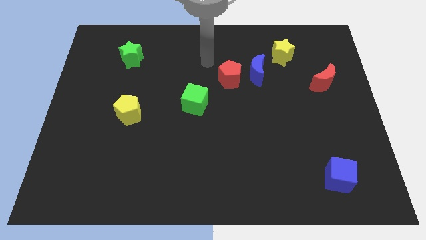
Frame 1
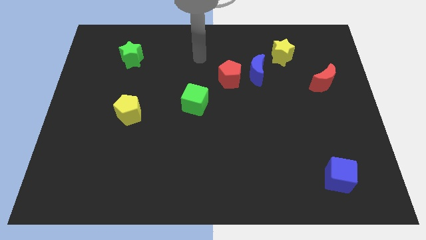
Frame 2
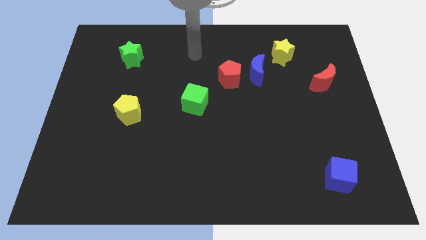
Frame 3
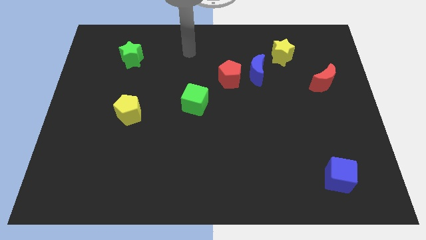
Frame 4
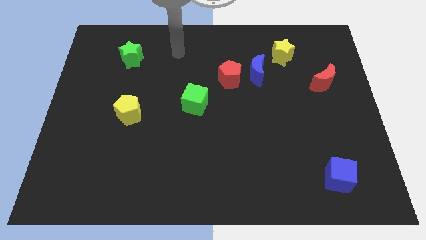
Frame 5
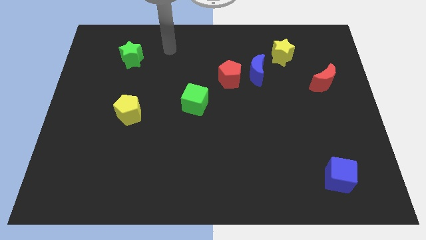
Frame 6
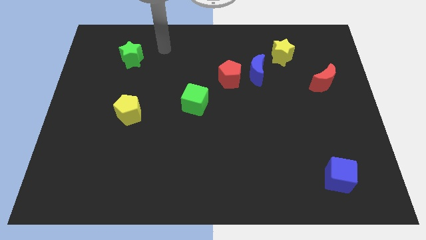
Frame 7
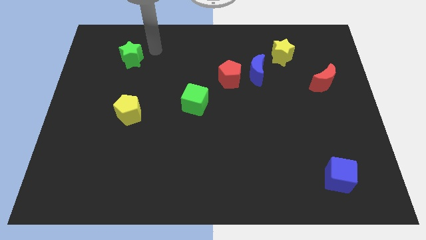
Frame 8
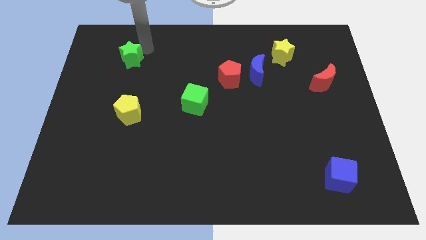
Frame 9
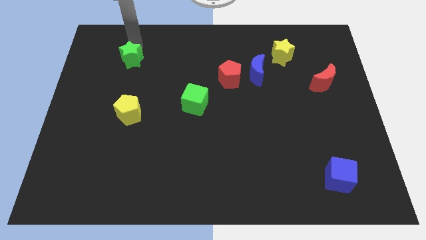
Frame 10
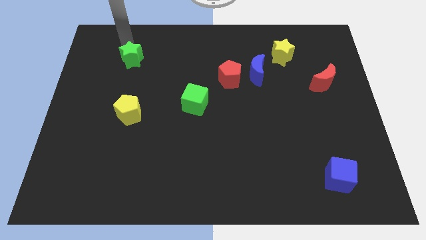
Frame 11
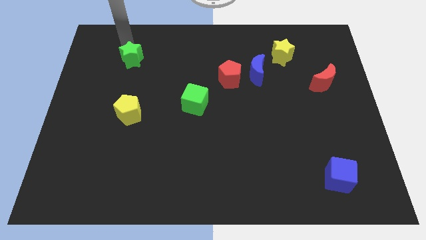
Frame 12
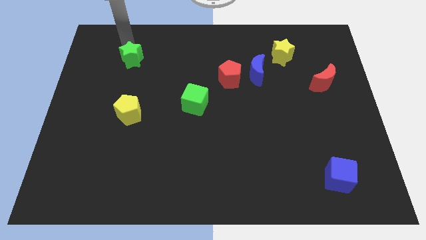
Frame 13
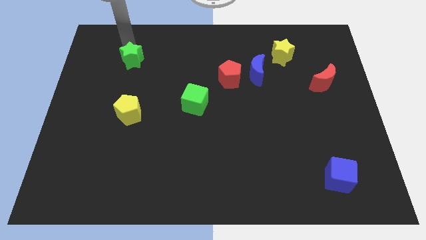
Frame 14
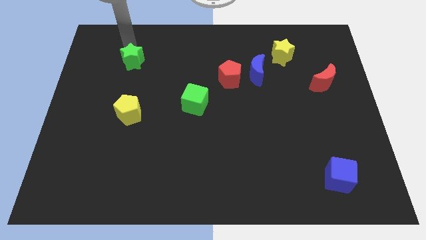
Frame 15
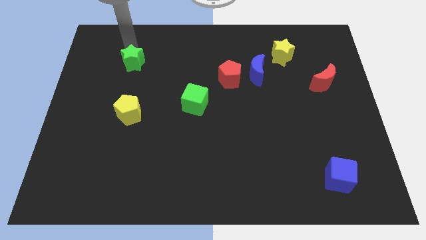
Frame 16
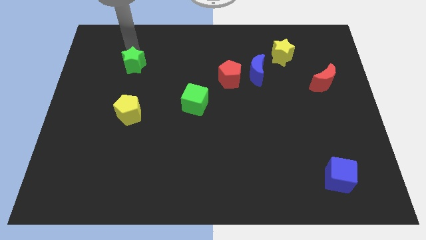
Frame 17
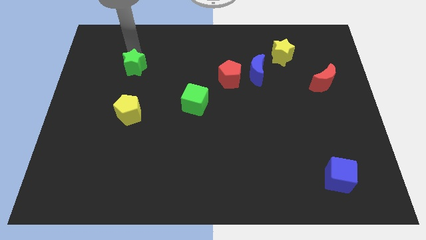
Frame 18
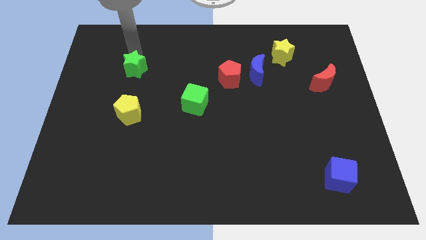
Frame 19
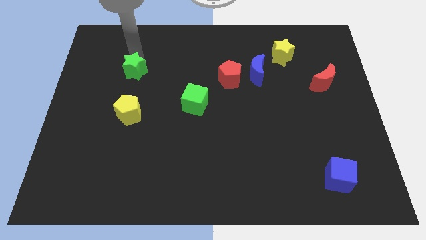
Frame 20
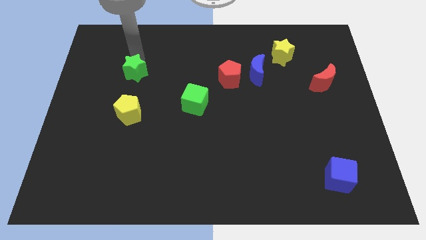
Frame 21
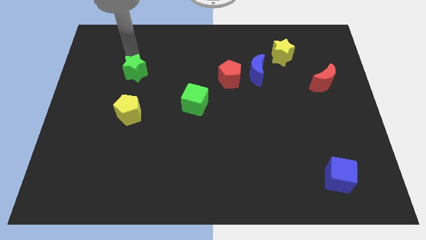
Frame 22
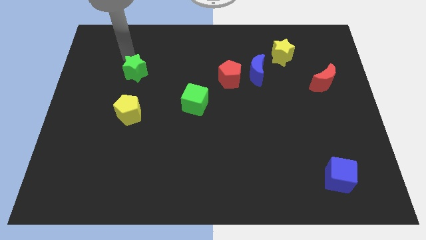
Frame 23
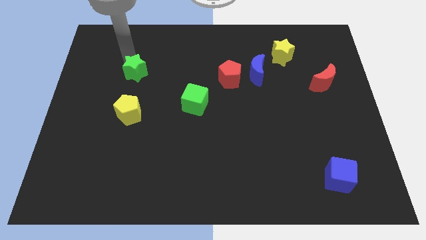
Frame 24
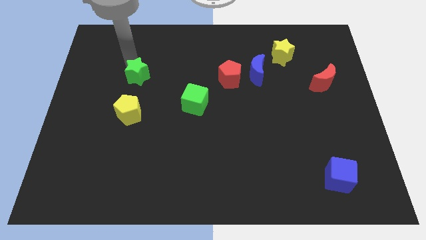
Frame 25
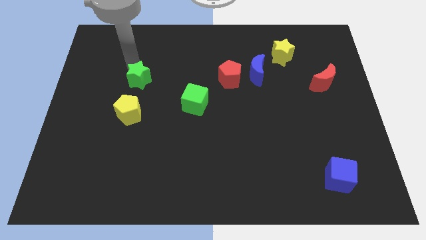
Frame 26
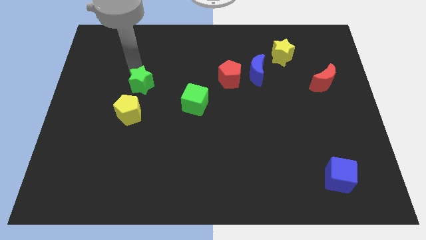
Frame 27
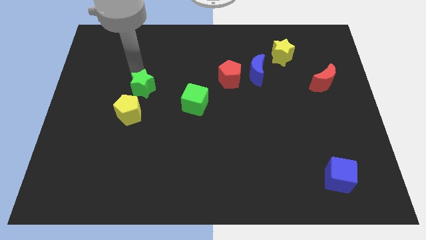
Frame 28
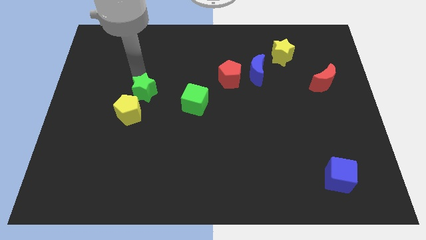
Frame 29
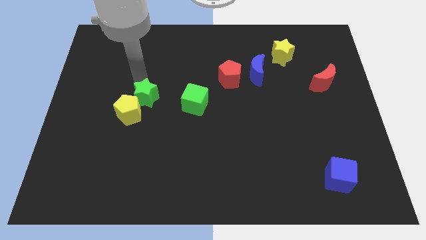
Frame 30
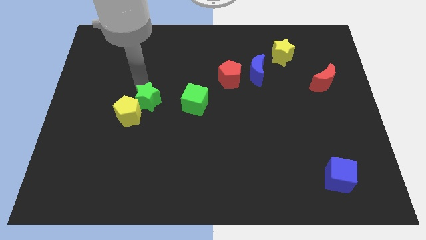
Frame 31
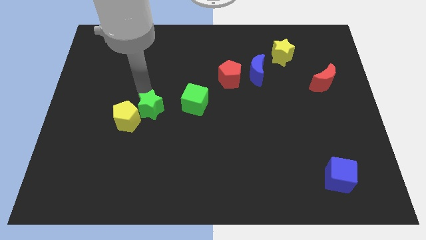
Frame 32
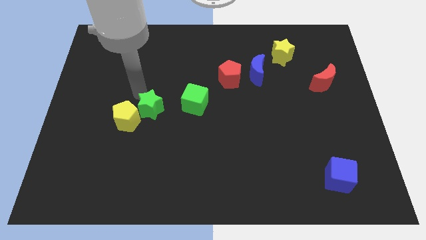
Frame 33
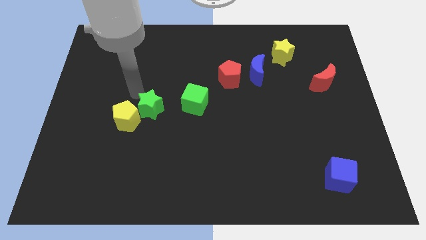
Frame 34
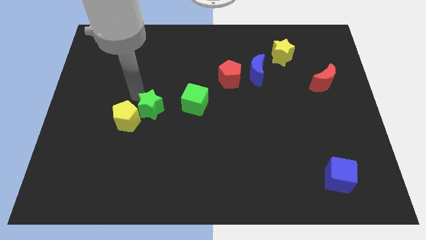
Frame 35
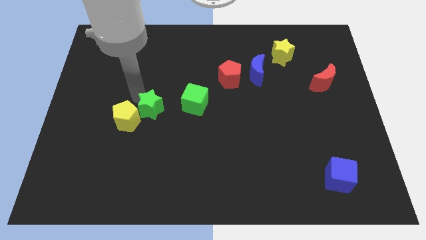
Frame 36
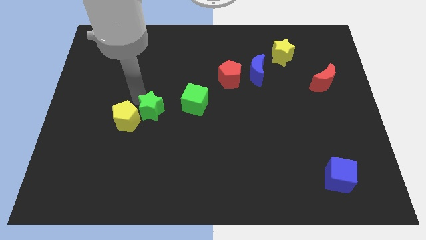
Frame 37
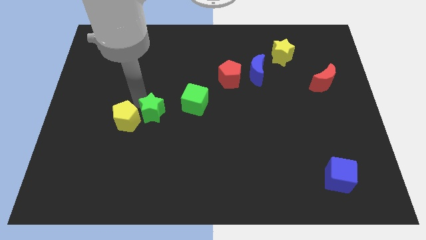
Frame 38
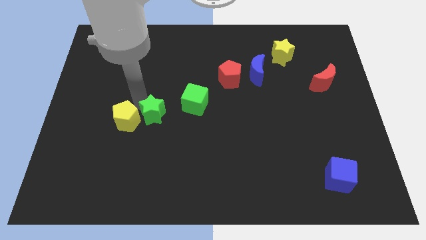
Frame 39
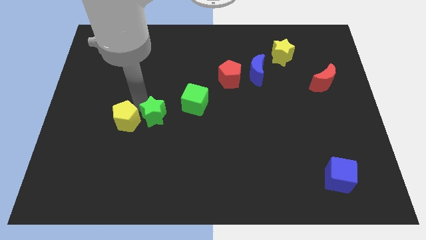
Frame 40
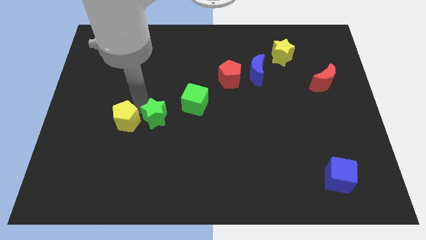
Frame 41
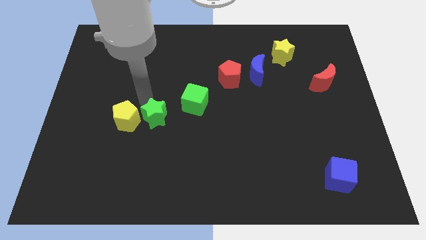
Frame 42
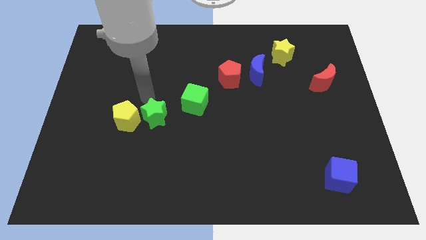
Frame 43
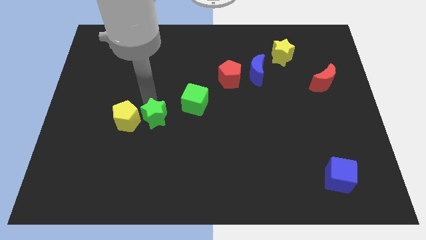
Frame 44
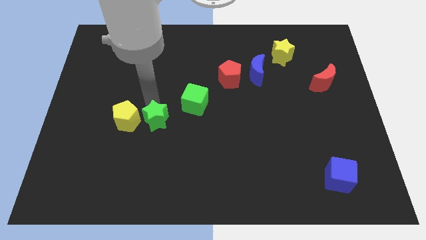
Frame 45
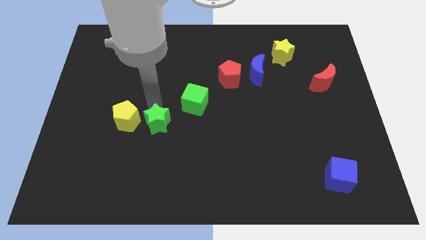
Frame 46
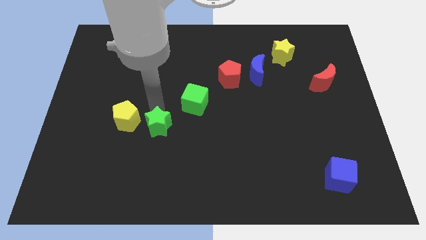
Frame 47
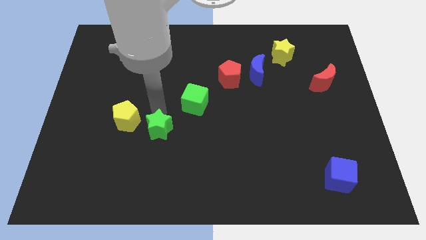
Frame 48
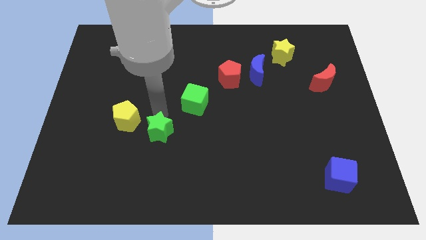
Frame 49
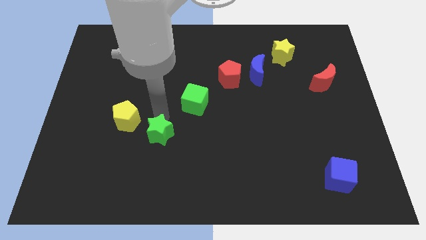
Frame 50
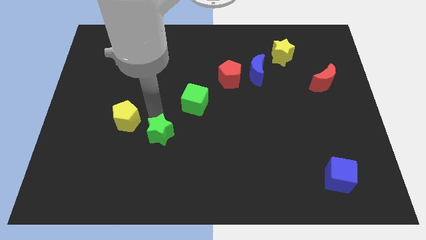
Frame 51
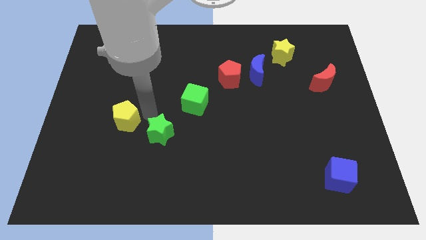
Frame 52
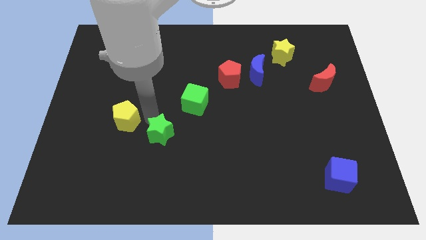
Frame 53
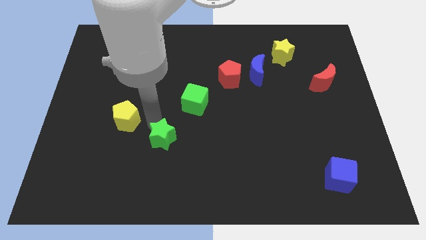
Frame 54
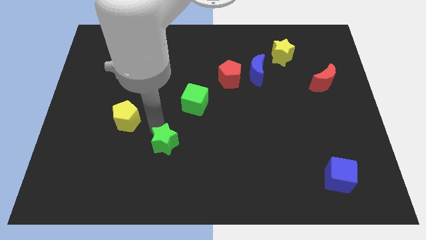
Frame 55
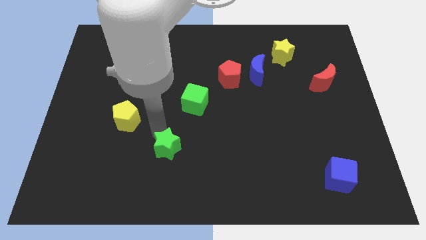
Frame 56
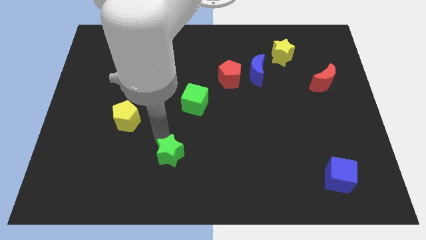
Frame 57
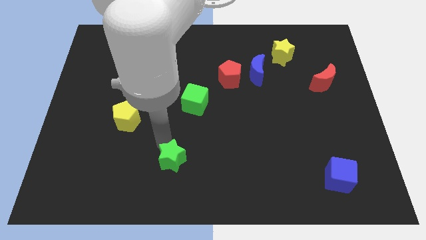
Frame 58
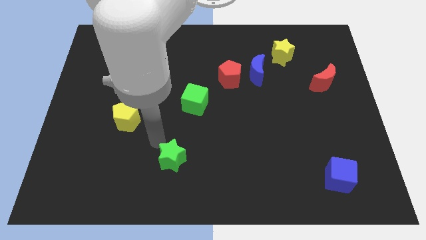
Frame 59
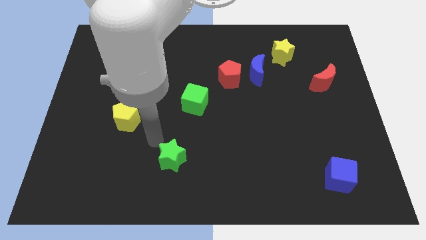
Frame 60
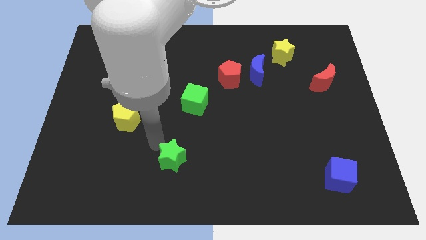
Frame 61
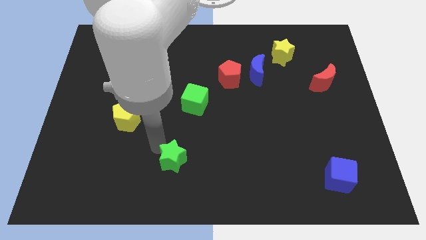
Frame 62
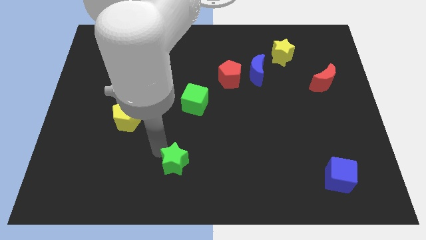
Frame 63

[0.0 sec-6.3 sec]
slide the green star to the bottom

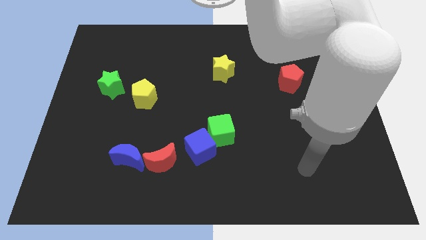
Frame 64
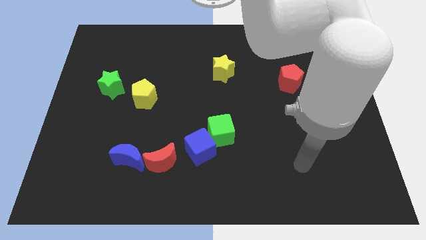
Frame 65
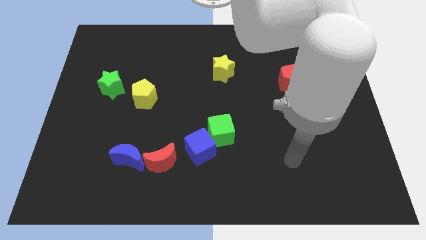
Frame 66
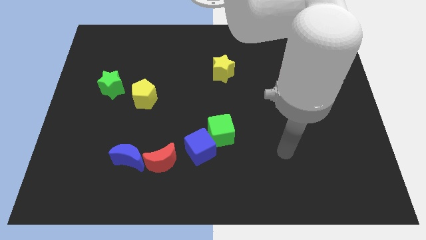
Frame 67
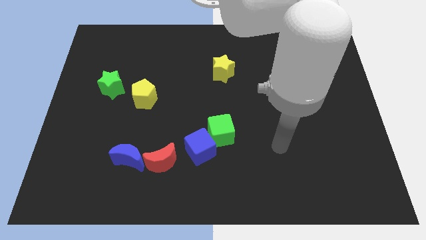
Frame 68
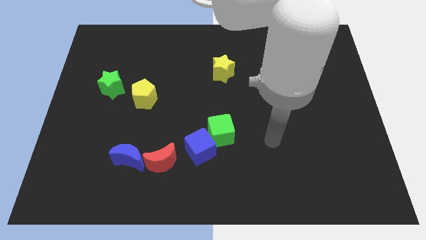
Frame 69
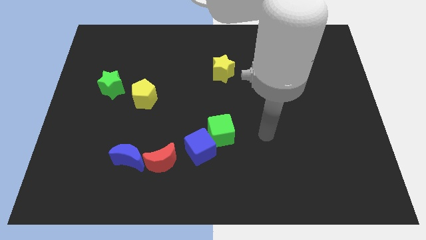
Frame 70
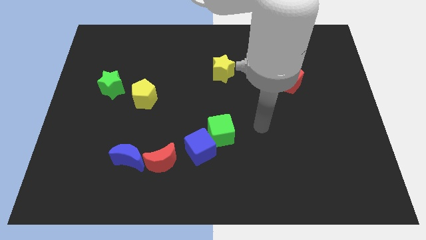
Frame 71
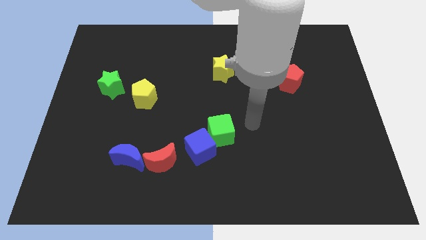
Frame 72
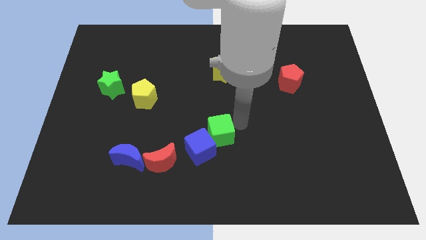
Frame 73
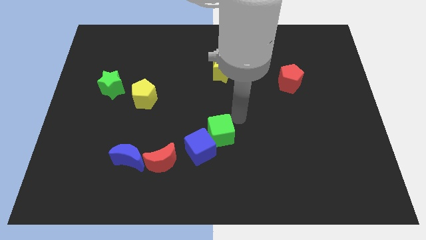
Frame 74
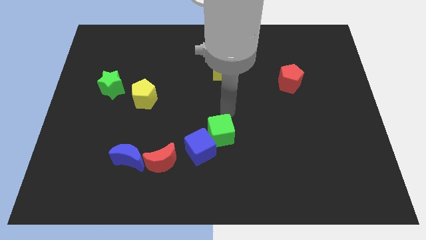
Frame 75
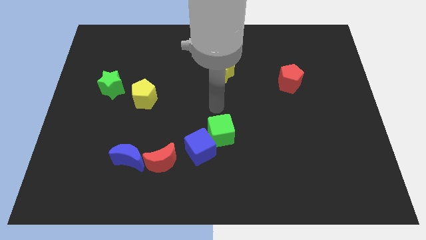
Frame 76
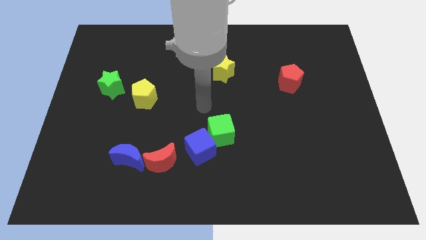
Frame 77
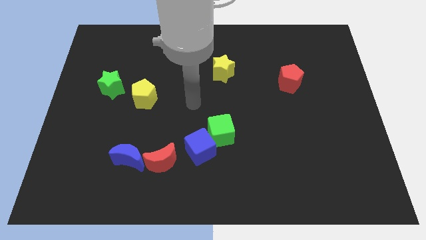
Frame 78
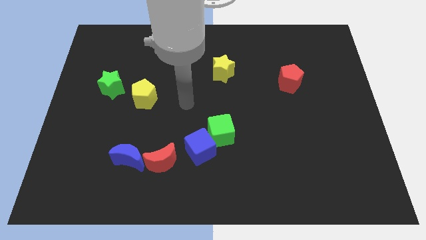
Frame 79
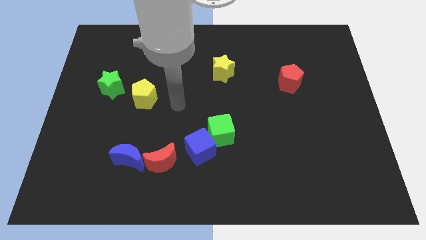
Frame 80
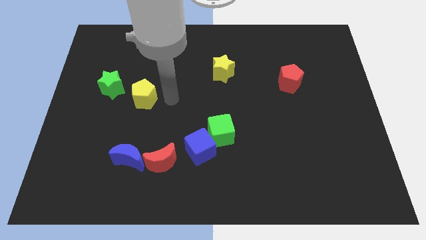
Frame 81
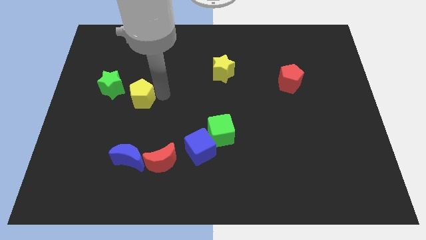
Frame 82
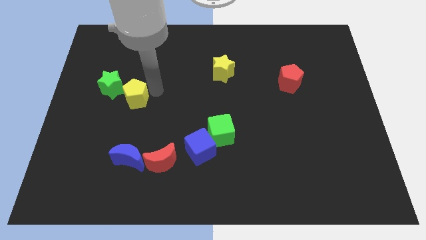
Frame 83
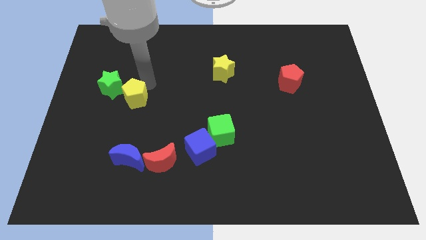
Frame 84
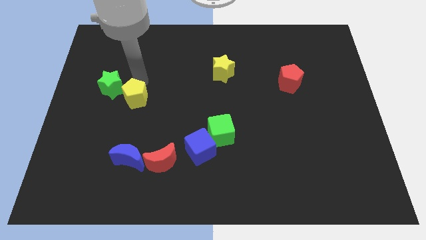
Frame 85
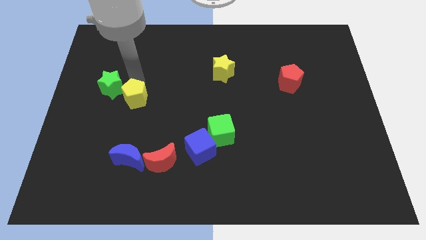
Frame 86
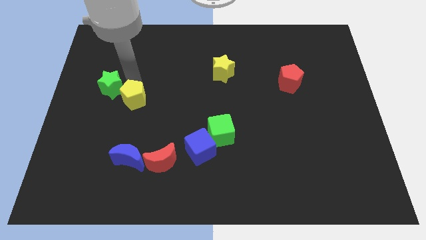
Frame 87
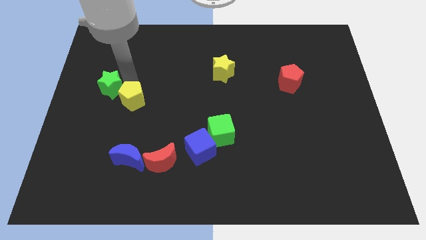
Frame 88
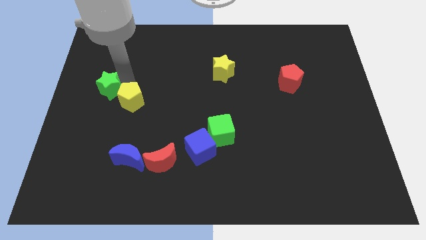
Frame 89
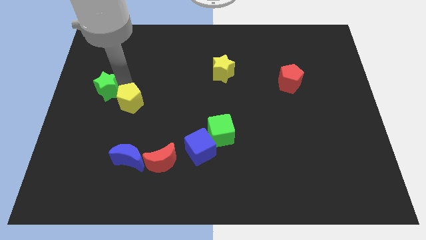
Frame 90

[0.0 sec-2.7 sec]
move the green star to the left side of the board
